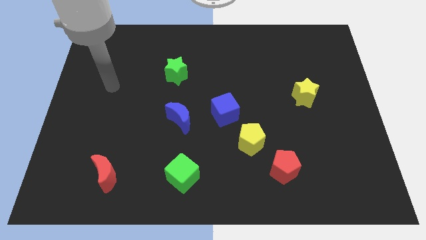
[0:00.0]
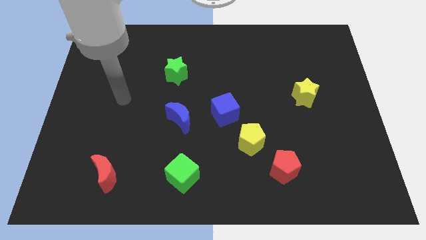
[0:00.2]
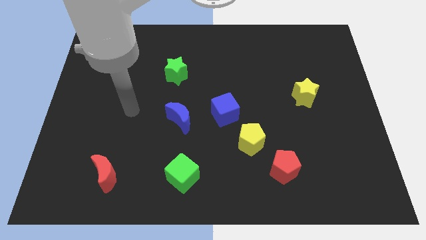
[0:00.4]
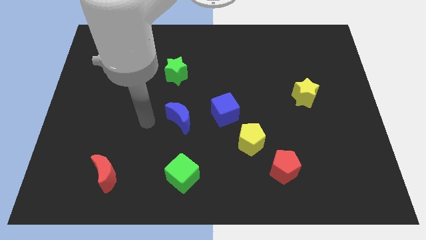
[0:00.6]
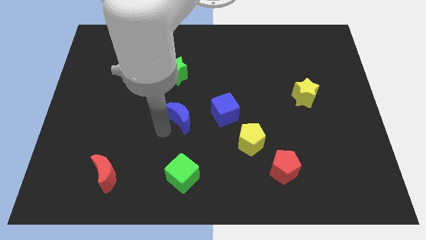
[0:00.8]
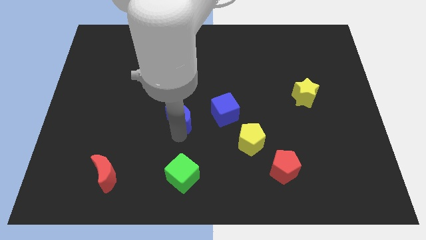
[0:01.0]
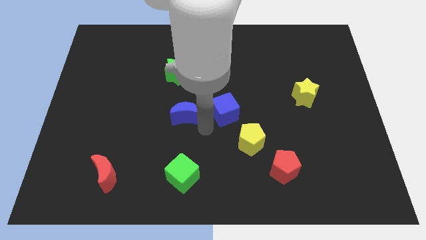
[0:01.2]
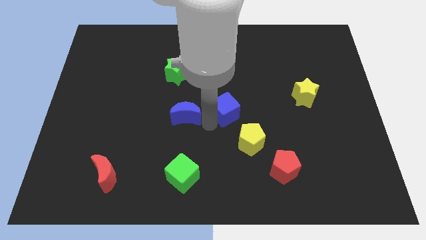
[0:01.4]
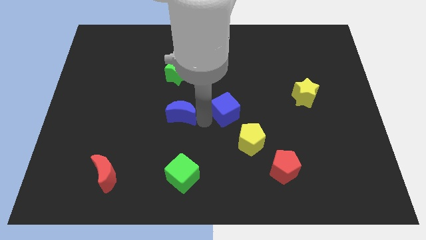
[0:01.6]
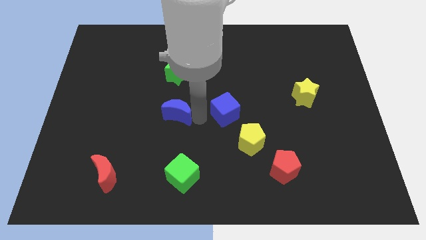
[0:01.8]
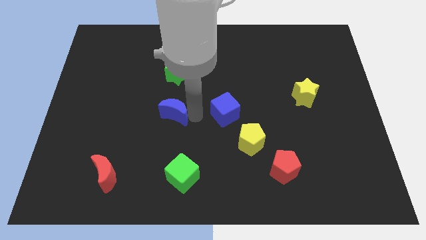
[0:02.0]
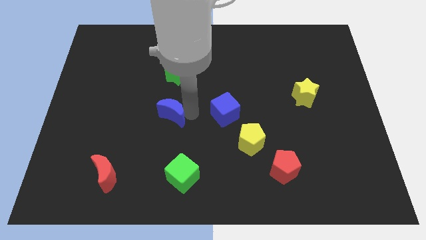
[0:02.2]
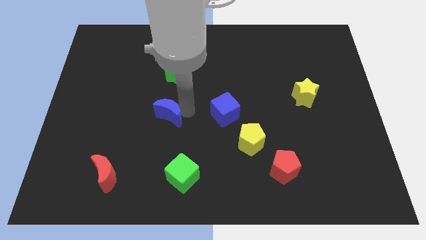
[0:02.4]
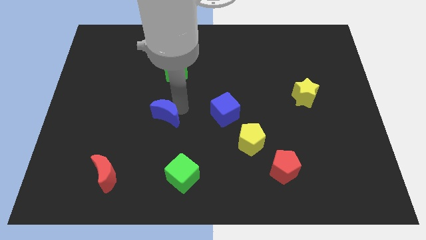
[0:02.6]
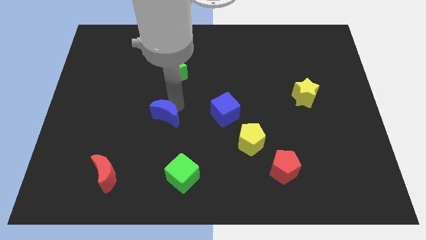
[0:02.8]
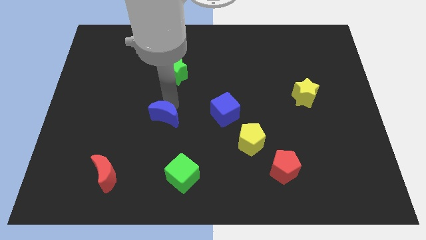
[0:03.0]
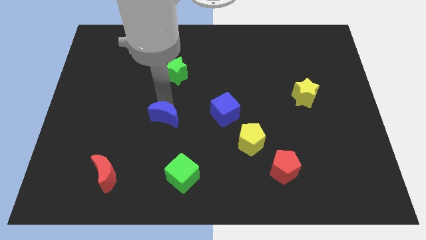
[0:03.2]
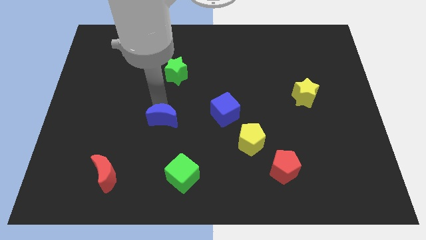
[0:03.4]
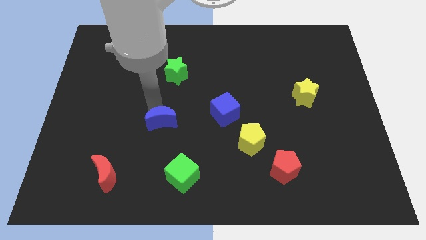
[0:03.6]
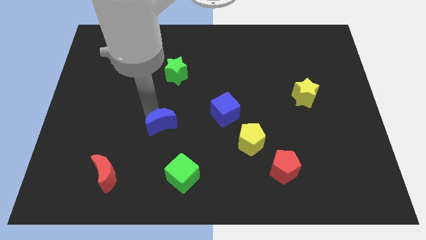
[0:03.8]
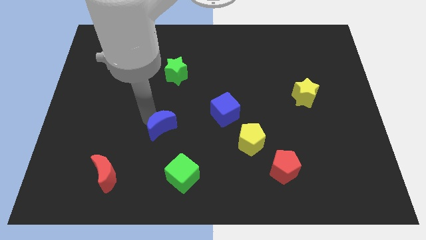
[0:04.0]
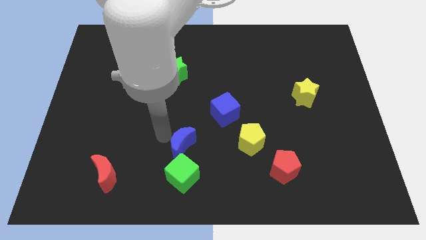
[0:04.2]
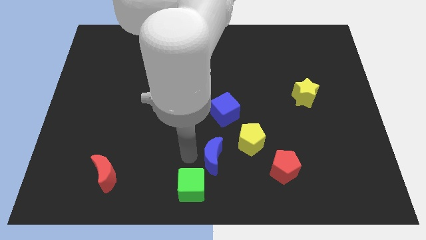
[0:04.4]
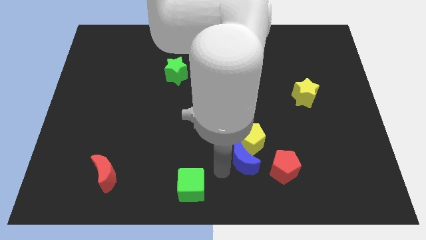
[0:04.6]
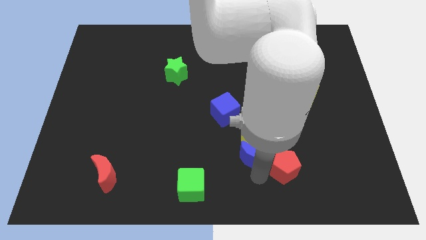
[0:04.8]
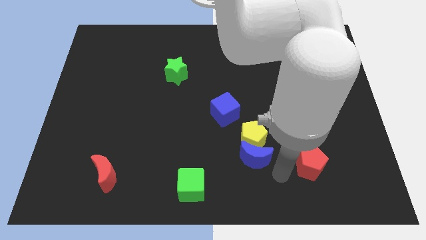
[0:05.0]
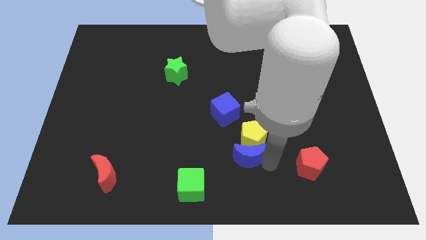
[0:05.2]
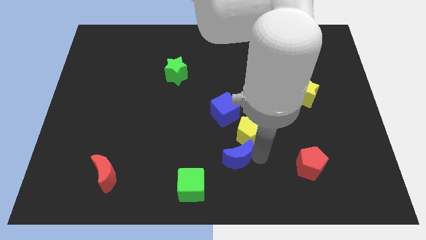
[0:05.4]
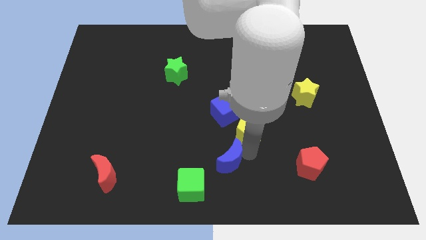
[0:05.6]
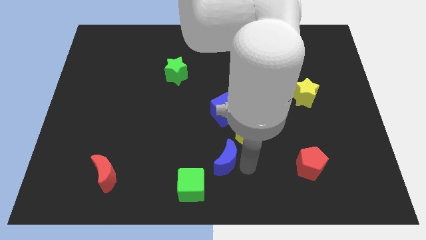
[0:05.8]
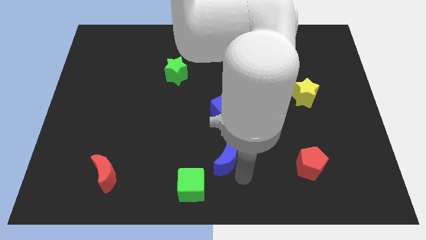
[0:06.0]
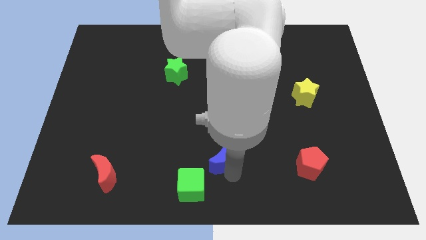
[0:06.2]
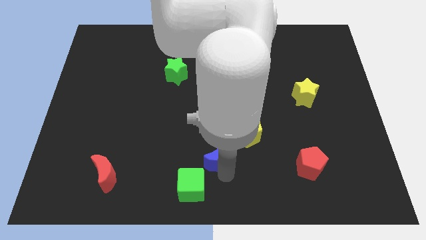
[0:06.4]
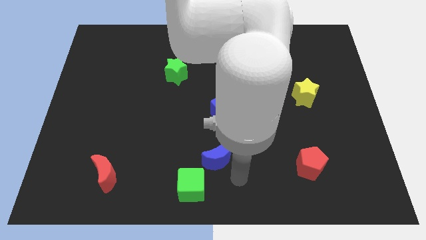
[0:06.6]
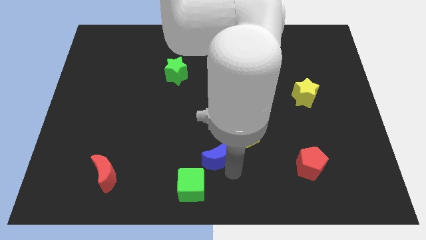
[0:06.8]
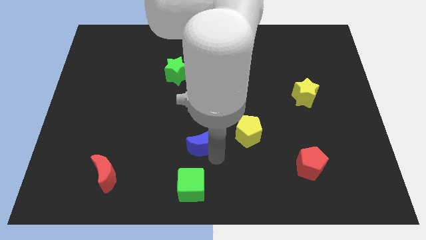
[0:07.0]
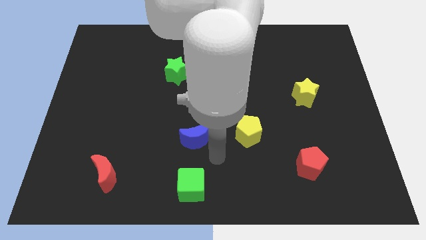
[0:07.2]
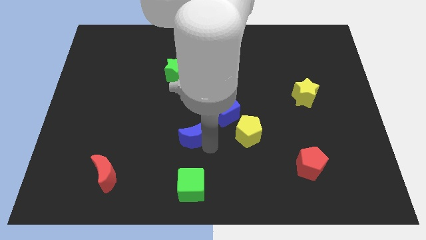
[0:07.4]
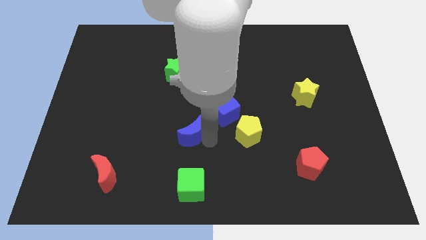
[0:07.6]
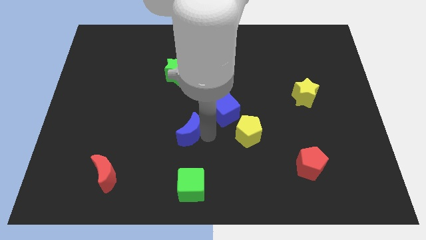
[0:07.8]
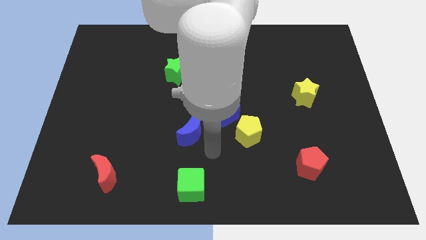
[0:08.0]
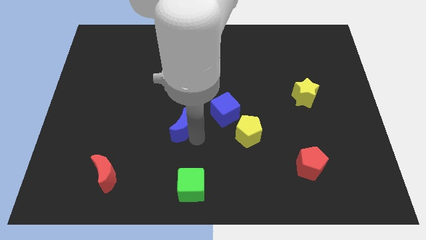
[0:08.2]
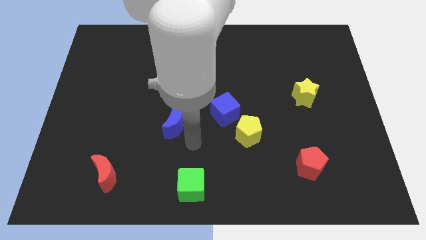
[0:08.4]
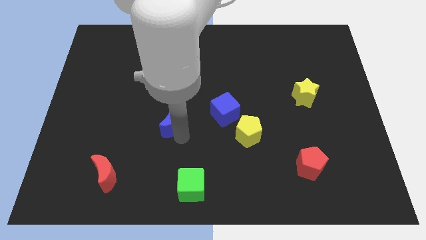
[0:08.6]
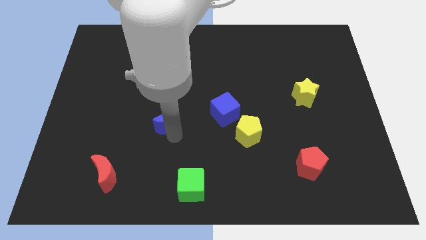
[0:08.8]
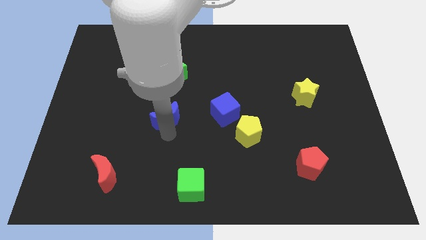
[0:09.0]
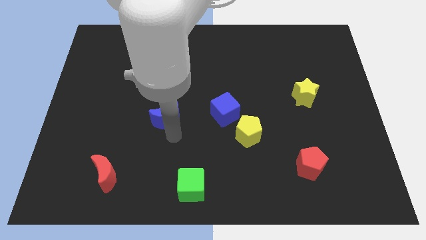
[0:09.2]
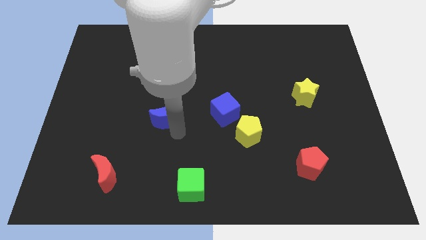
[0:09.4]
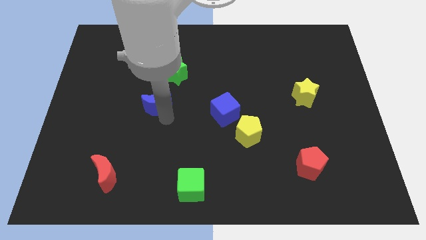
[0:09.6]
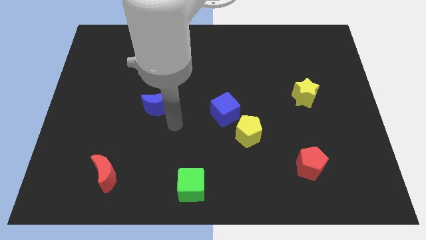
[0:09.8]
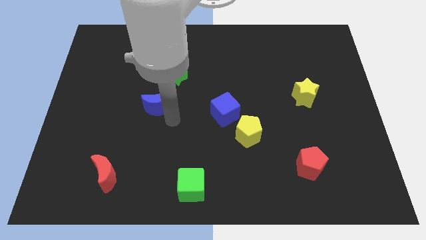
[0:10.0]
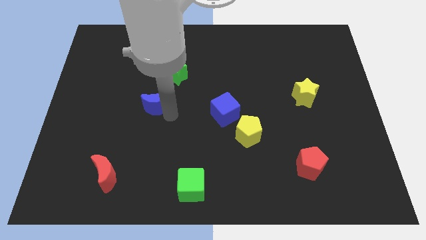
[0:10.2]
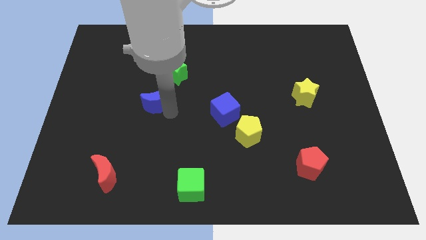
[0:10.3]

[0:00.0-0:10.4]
move the blue moon somewhat up and left diagonally

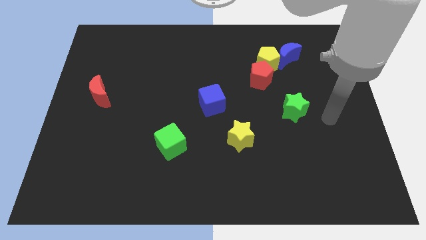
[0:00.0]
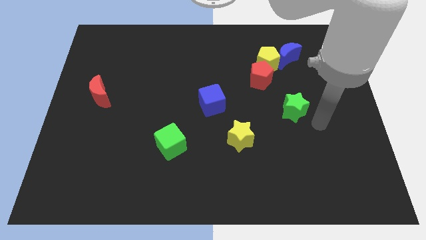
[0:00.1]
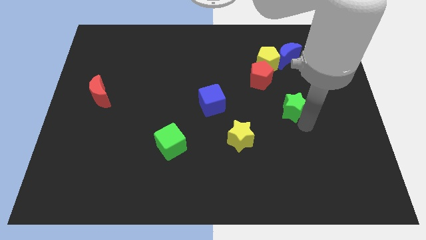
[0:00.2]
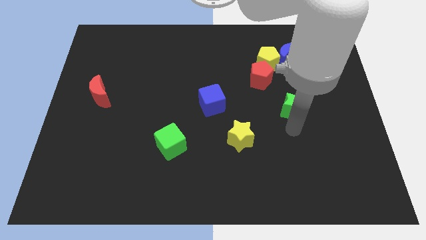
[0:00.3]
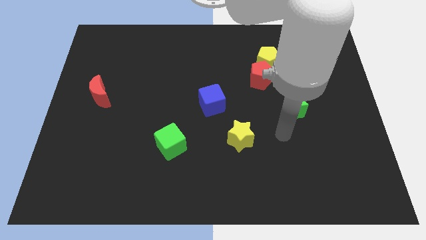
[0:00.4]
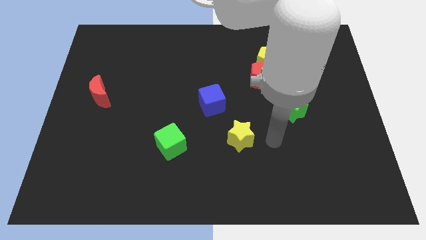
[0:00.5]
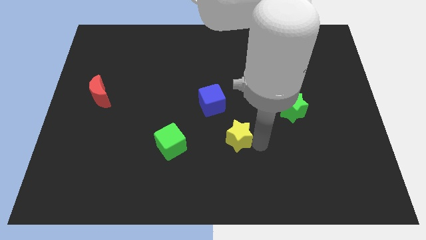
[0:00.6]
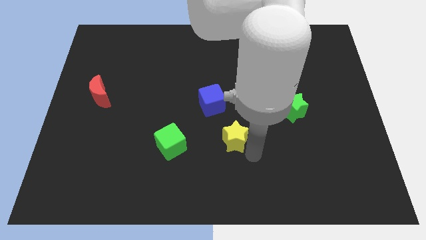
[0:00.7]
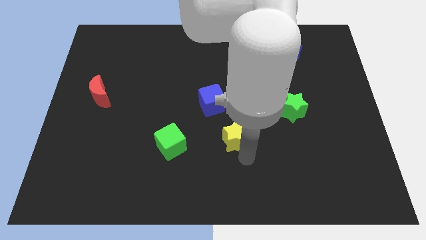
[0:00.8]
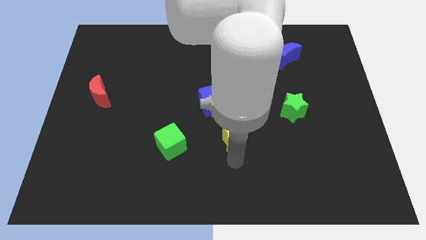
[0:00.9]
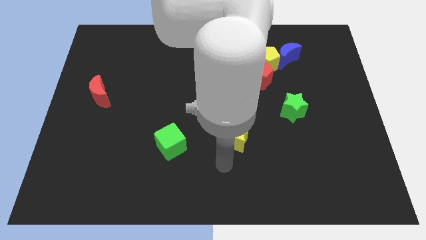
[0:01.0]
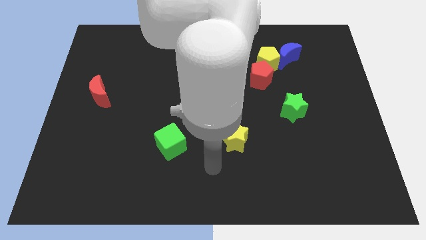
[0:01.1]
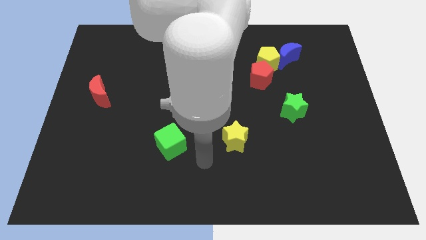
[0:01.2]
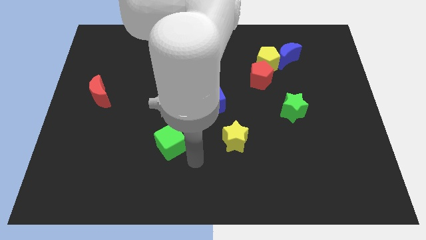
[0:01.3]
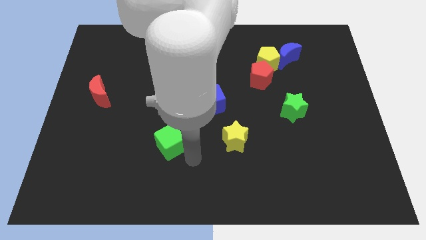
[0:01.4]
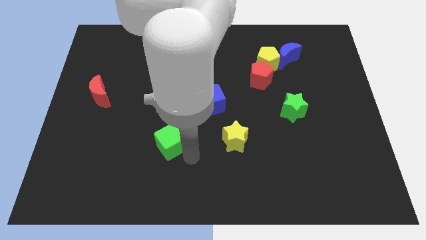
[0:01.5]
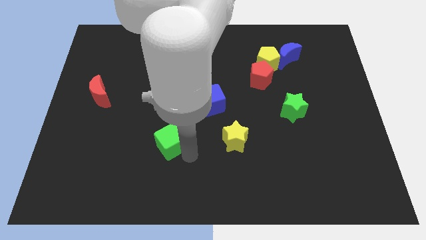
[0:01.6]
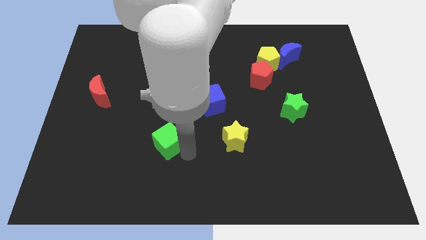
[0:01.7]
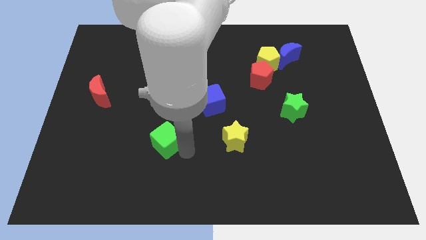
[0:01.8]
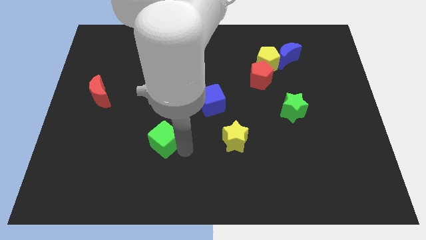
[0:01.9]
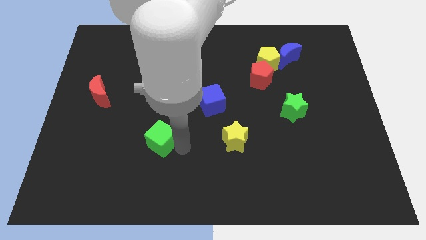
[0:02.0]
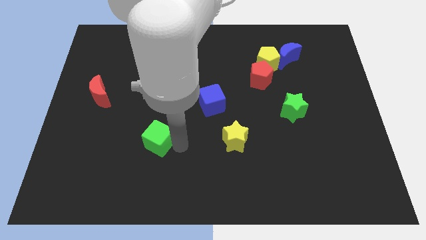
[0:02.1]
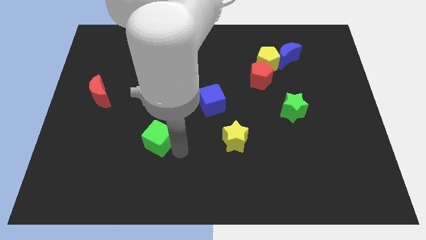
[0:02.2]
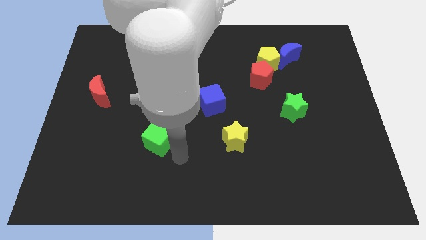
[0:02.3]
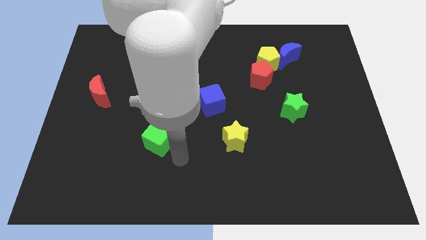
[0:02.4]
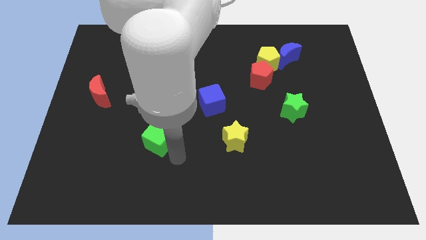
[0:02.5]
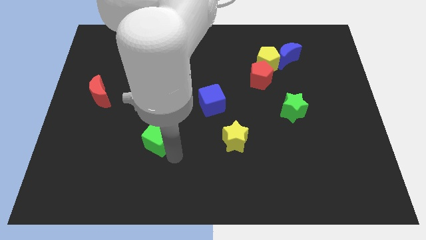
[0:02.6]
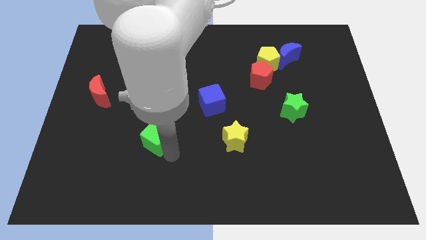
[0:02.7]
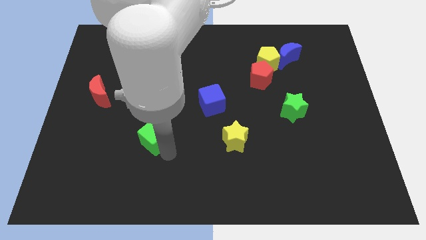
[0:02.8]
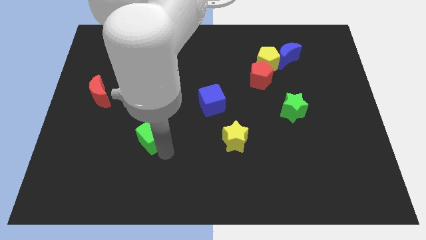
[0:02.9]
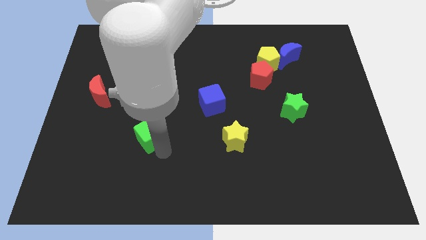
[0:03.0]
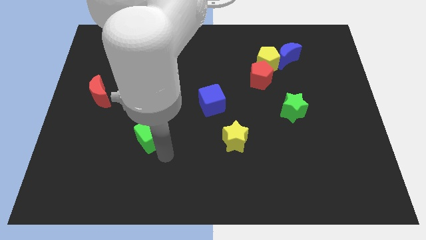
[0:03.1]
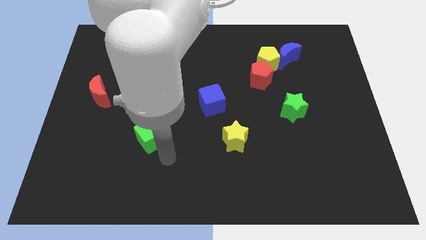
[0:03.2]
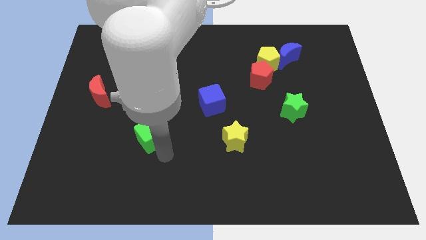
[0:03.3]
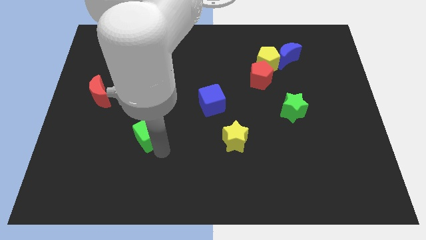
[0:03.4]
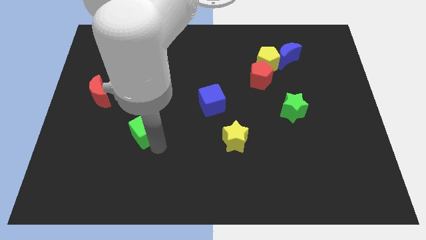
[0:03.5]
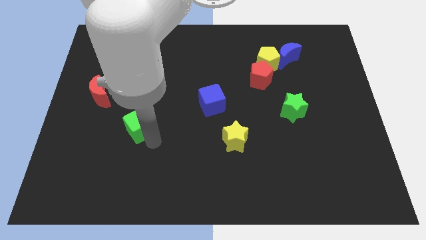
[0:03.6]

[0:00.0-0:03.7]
slide the green cube diagonally upwards and left a little
